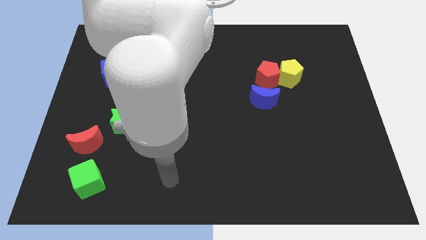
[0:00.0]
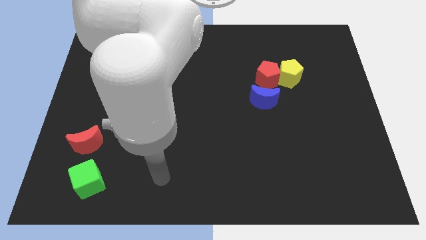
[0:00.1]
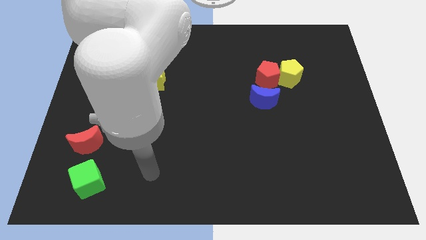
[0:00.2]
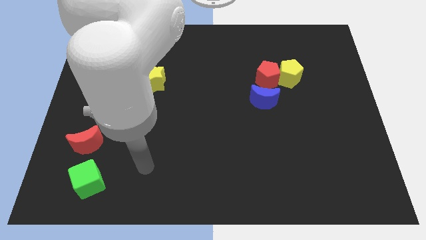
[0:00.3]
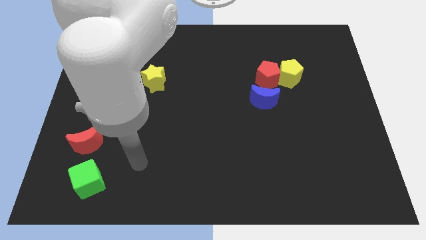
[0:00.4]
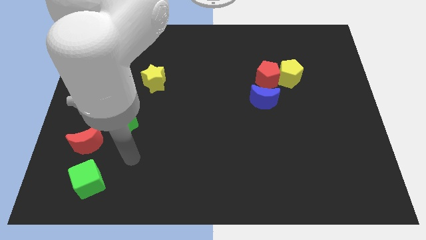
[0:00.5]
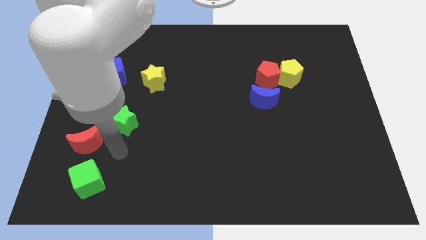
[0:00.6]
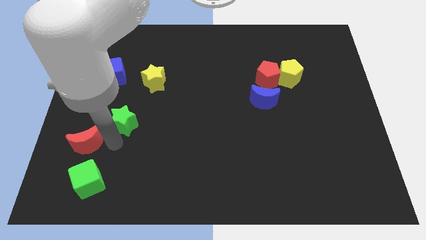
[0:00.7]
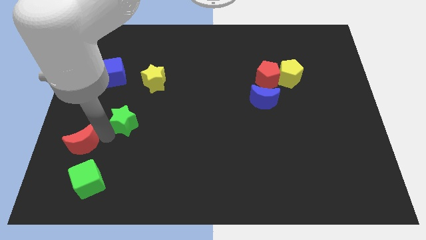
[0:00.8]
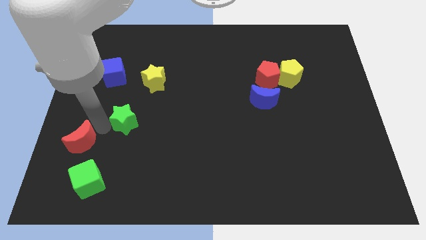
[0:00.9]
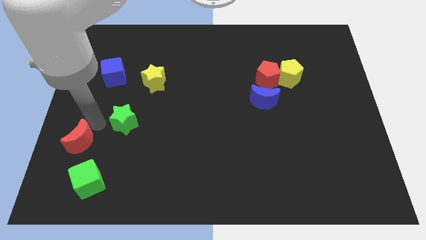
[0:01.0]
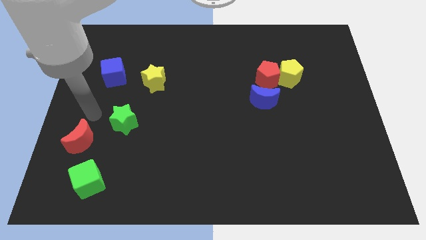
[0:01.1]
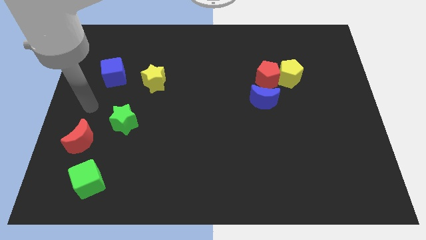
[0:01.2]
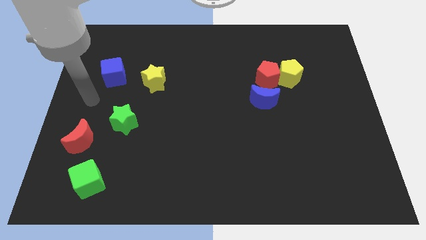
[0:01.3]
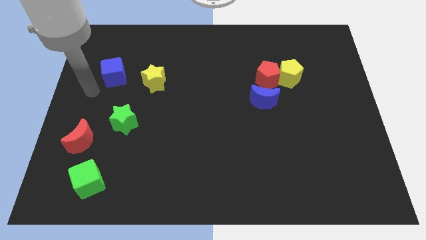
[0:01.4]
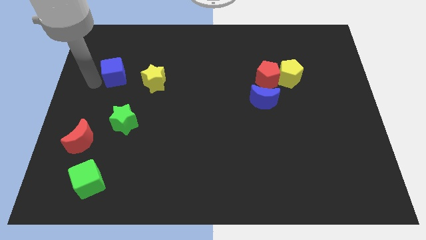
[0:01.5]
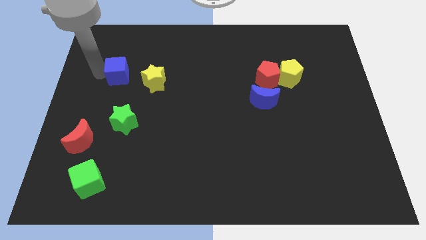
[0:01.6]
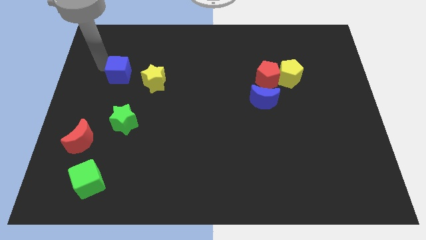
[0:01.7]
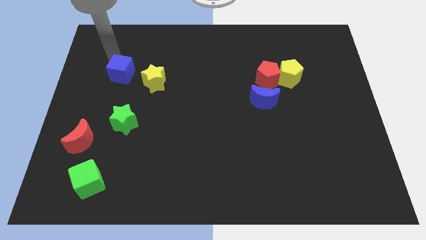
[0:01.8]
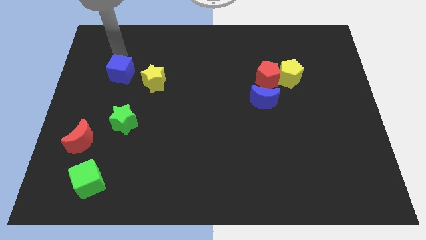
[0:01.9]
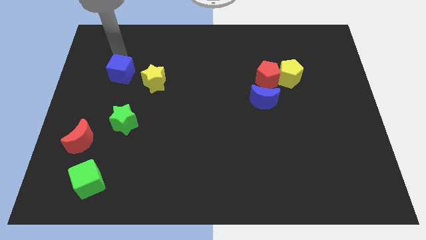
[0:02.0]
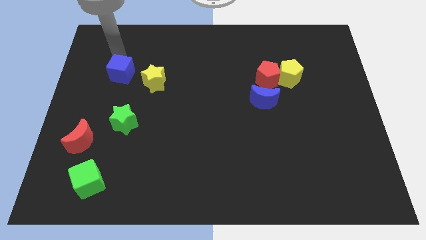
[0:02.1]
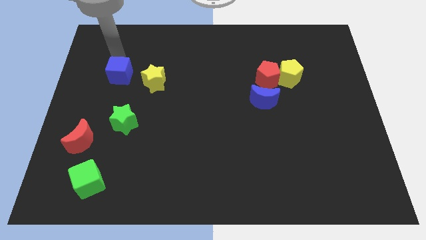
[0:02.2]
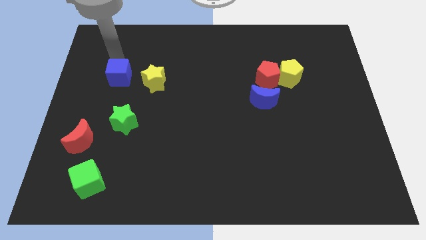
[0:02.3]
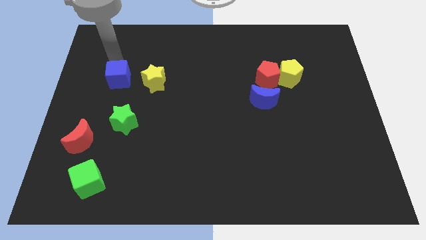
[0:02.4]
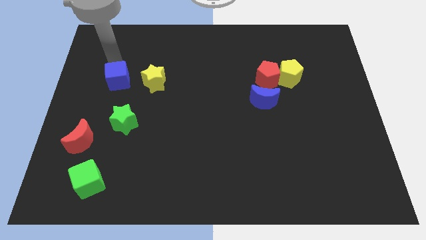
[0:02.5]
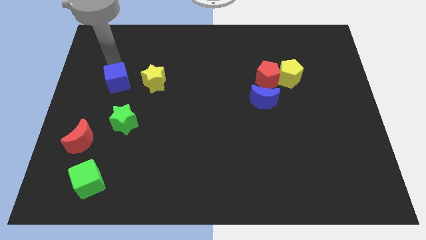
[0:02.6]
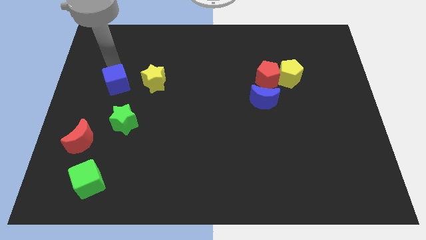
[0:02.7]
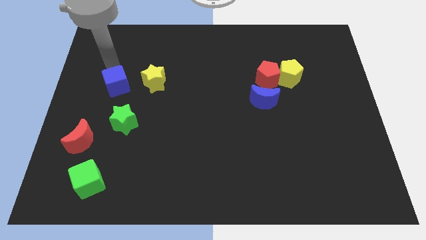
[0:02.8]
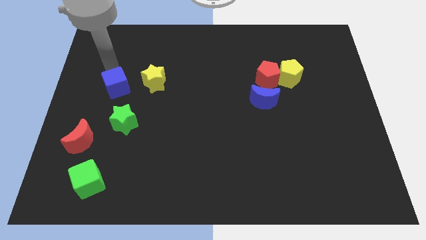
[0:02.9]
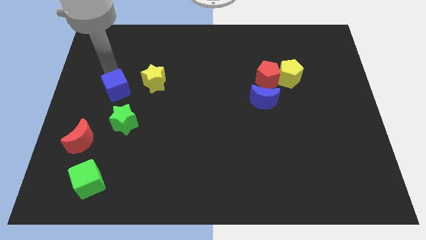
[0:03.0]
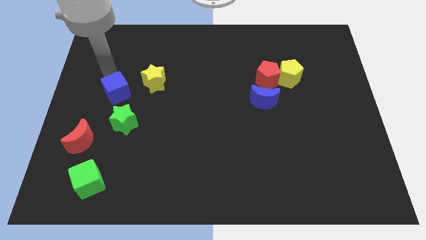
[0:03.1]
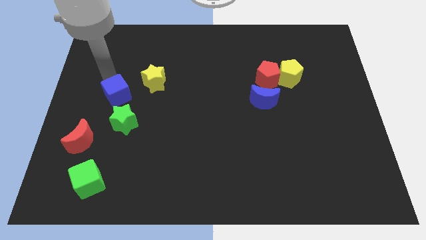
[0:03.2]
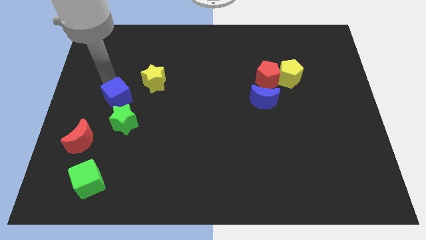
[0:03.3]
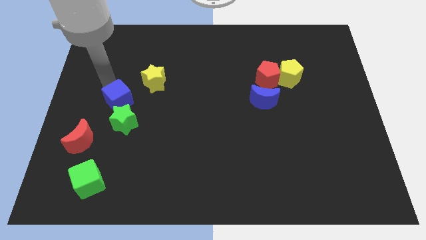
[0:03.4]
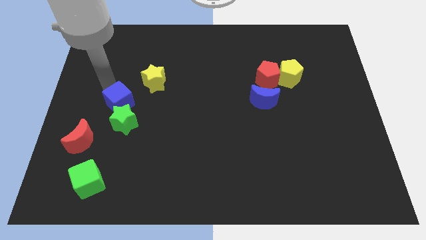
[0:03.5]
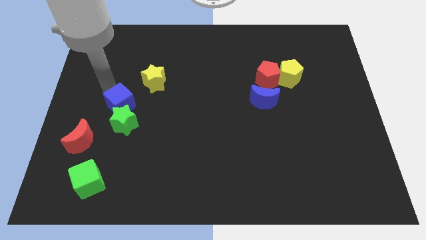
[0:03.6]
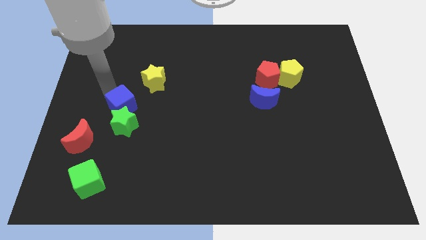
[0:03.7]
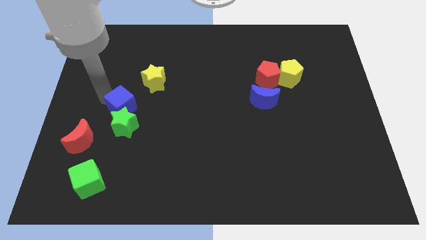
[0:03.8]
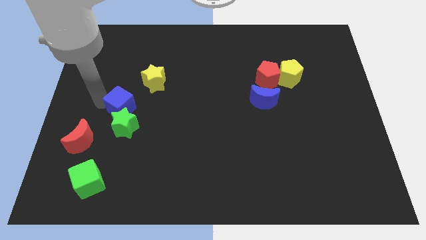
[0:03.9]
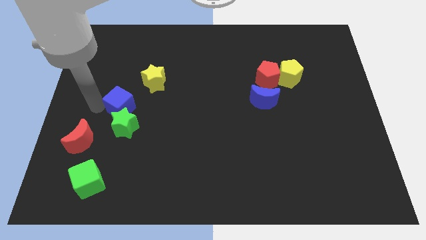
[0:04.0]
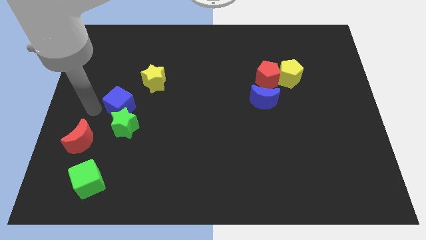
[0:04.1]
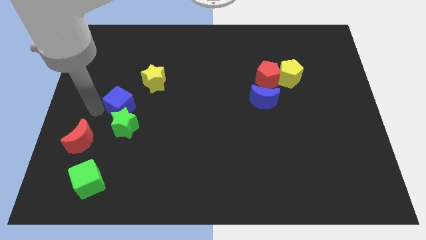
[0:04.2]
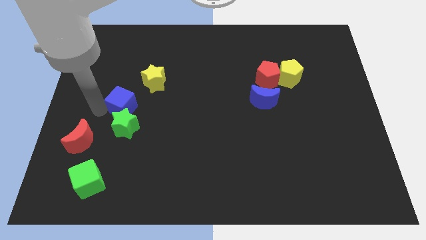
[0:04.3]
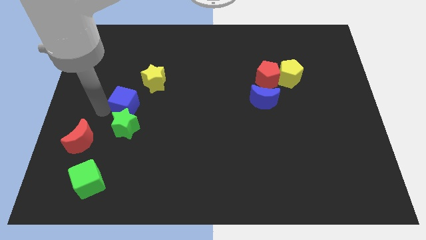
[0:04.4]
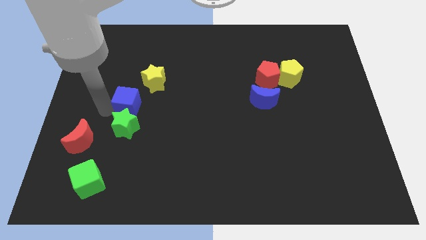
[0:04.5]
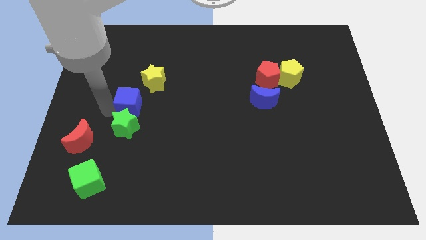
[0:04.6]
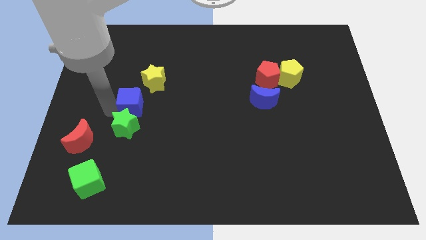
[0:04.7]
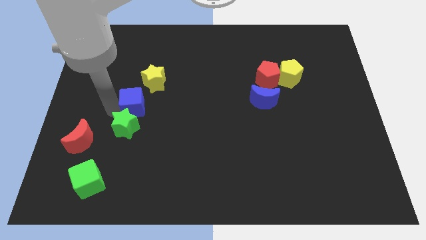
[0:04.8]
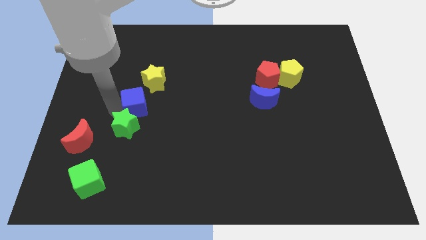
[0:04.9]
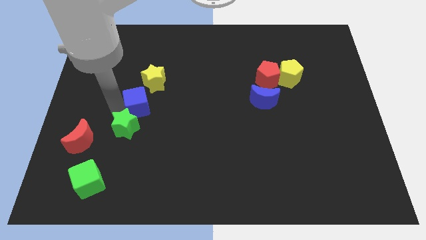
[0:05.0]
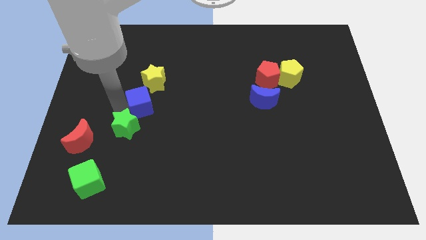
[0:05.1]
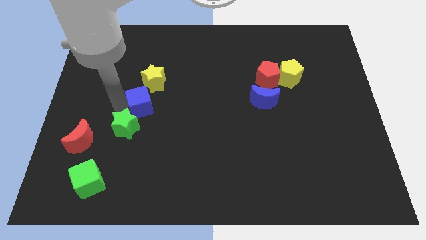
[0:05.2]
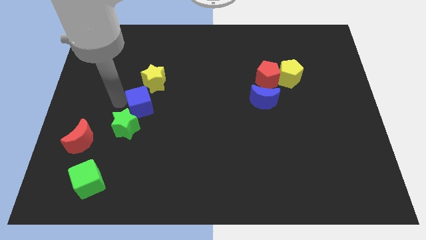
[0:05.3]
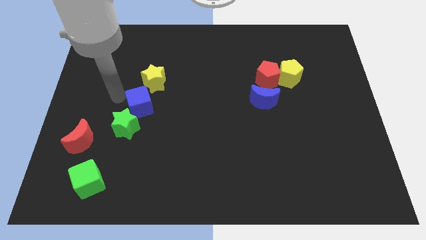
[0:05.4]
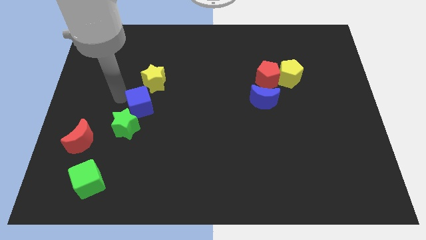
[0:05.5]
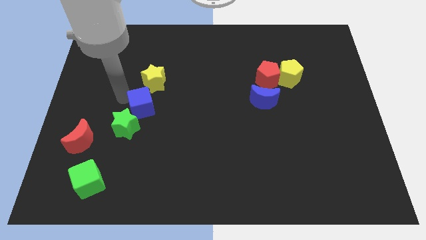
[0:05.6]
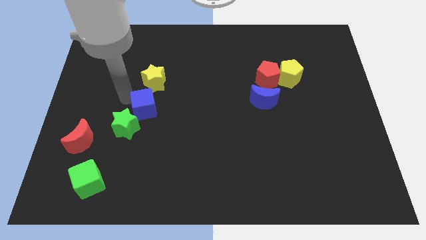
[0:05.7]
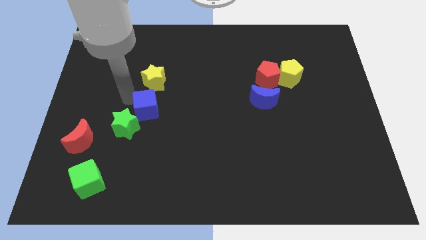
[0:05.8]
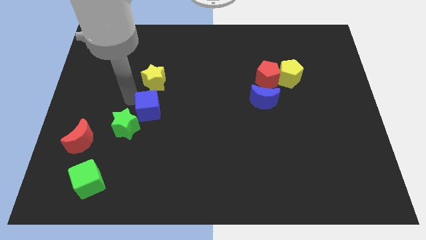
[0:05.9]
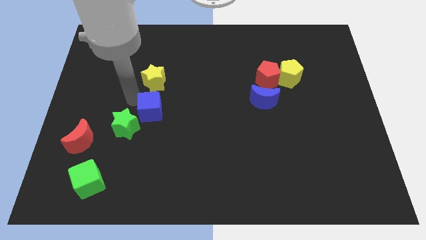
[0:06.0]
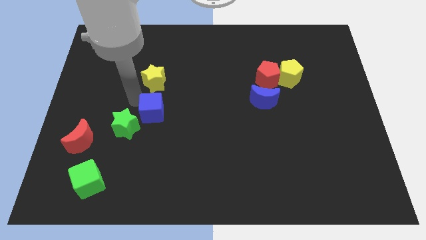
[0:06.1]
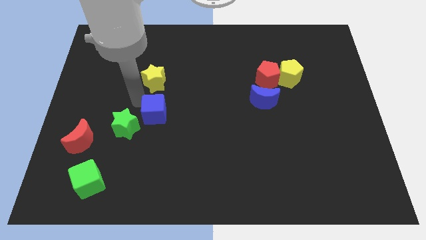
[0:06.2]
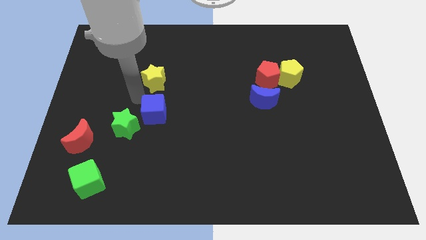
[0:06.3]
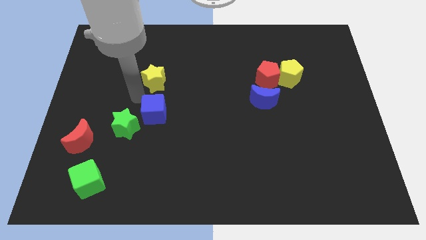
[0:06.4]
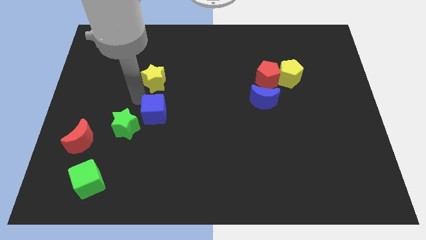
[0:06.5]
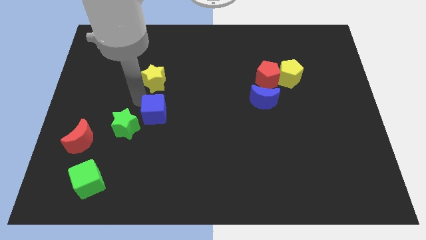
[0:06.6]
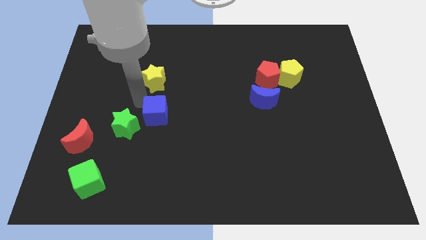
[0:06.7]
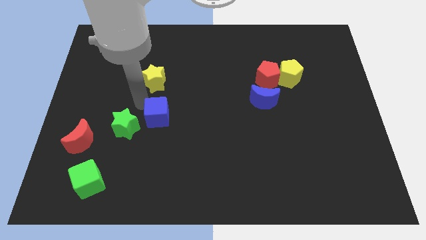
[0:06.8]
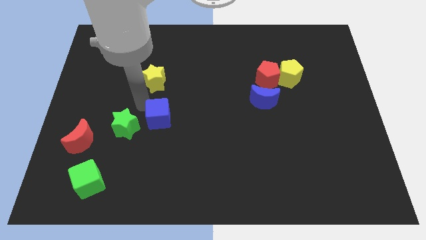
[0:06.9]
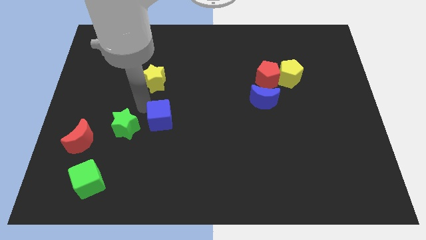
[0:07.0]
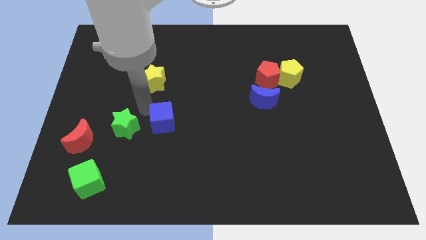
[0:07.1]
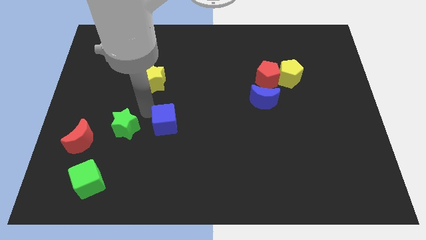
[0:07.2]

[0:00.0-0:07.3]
slide the blue cube diagonally down and right

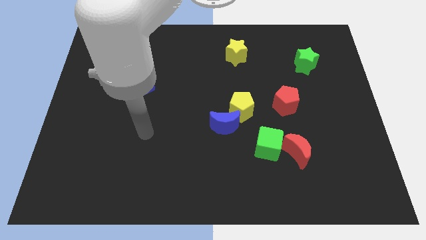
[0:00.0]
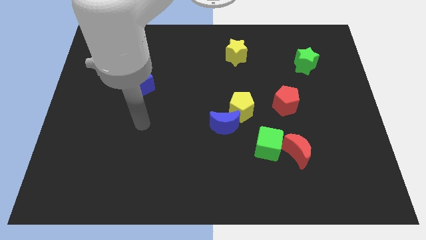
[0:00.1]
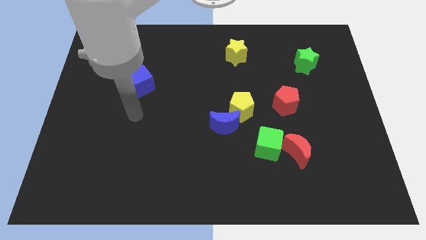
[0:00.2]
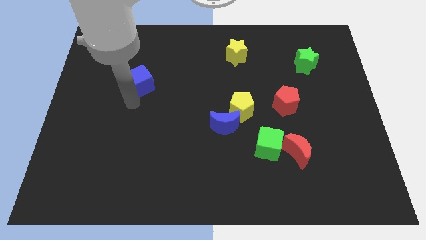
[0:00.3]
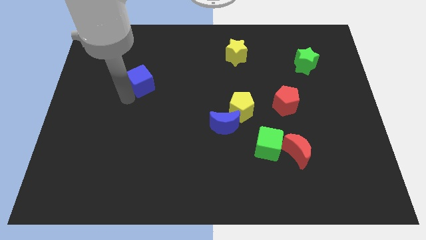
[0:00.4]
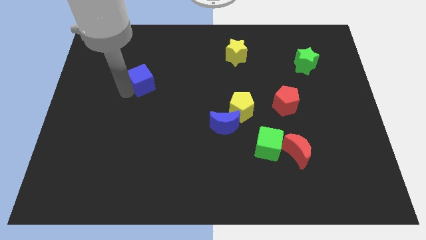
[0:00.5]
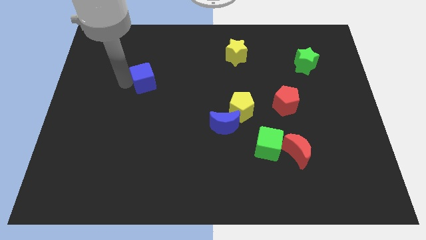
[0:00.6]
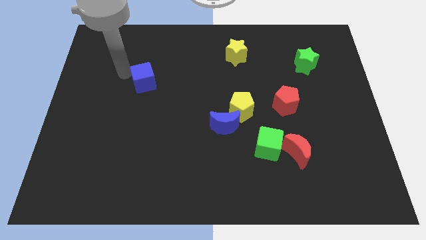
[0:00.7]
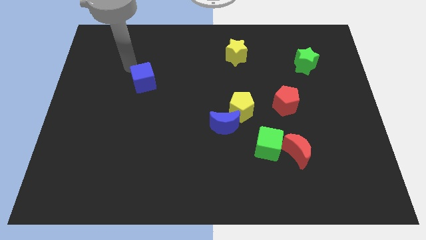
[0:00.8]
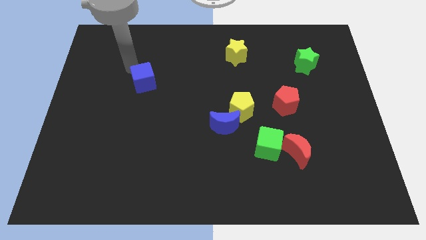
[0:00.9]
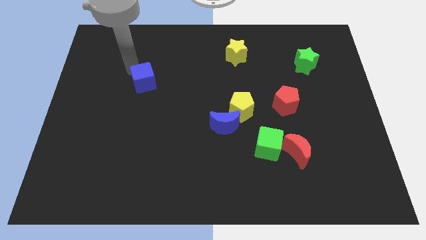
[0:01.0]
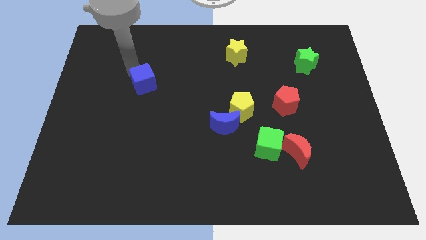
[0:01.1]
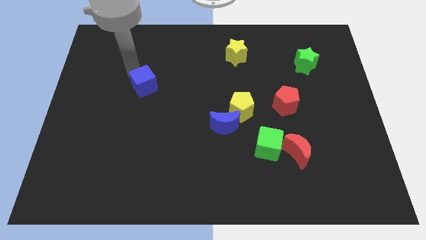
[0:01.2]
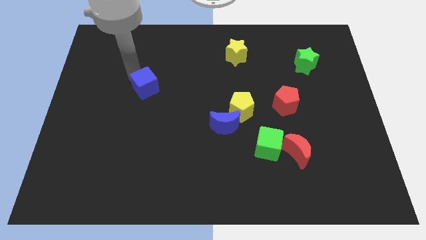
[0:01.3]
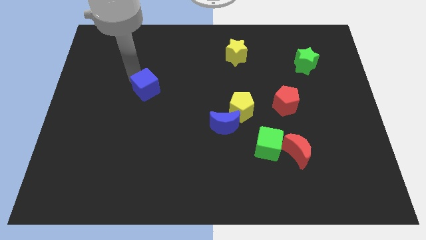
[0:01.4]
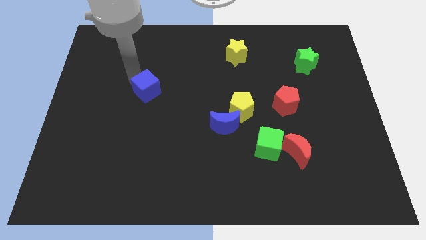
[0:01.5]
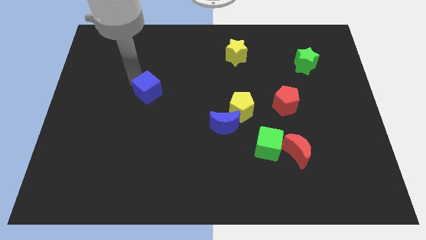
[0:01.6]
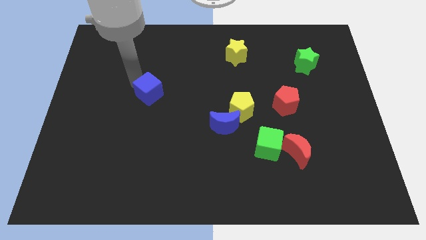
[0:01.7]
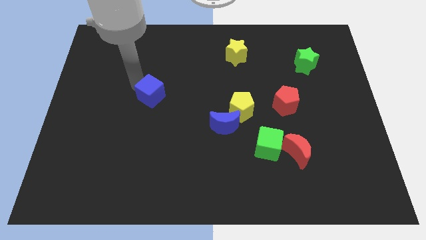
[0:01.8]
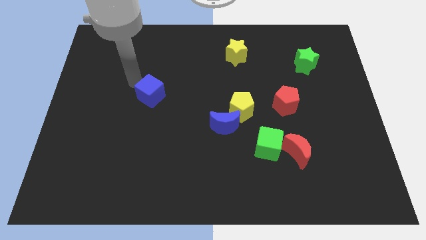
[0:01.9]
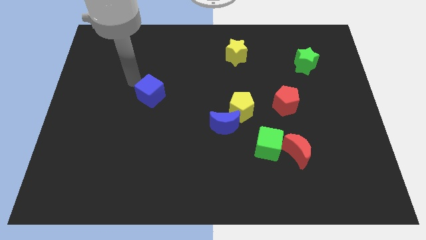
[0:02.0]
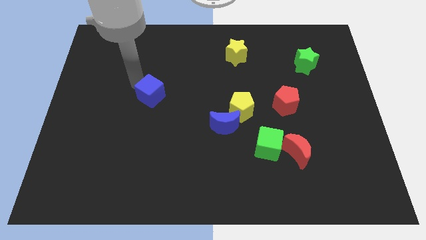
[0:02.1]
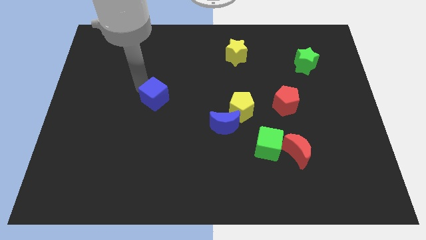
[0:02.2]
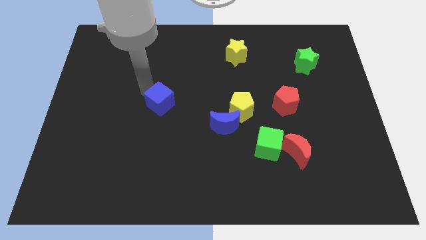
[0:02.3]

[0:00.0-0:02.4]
move the blue cube down and right diagonally a little bit
